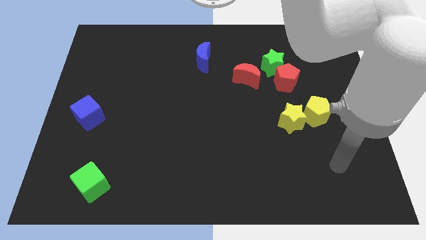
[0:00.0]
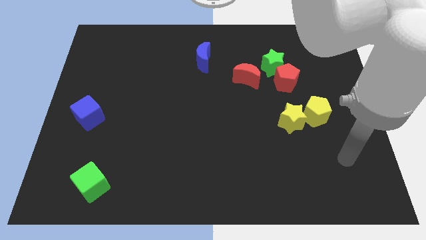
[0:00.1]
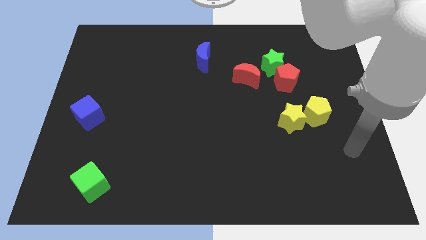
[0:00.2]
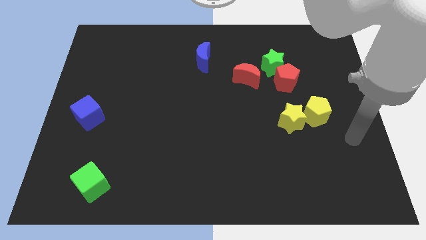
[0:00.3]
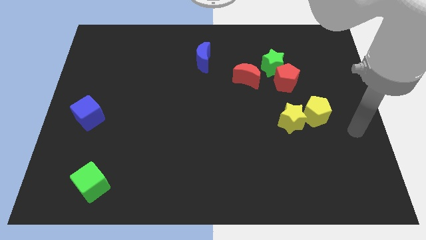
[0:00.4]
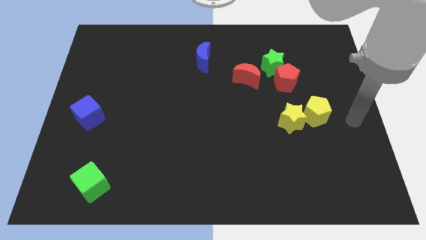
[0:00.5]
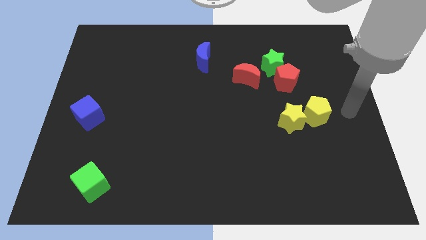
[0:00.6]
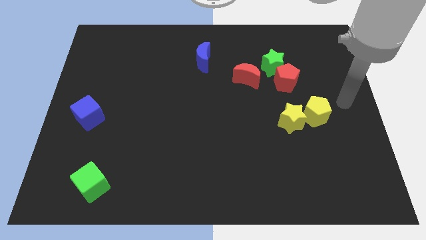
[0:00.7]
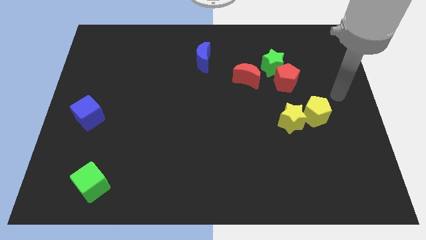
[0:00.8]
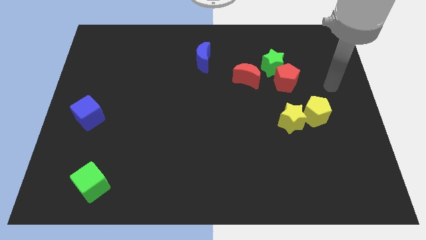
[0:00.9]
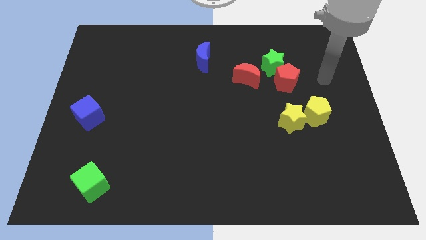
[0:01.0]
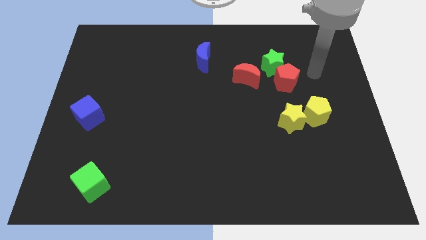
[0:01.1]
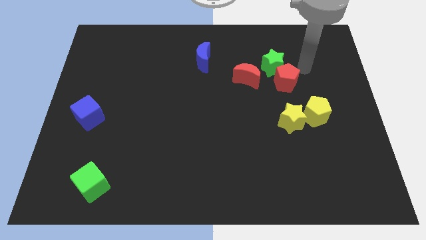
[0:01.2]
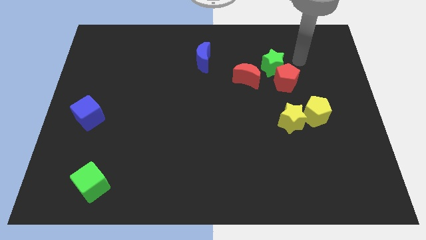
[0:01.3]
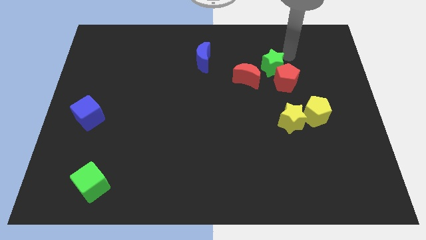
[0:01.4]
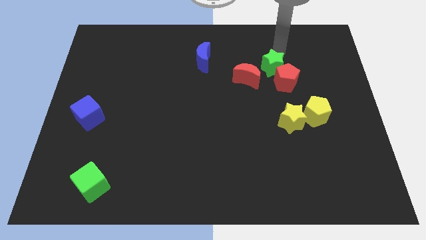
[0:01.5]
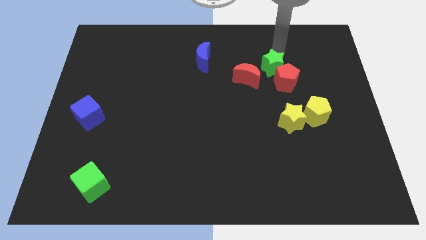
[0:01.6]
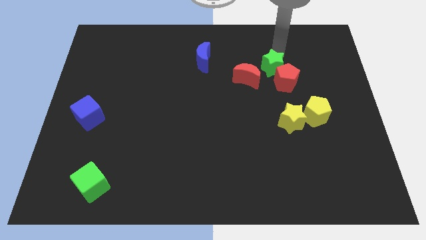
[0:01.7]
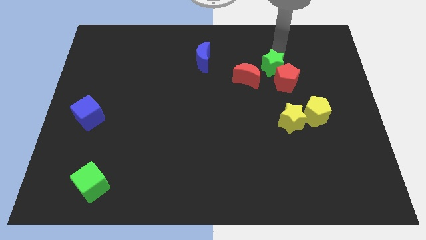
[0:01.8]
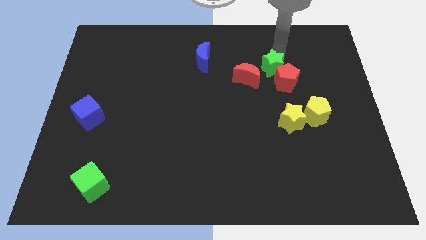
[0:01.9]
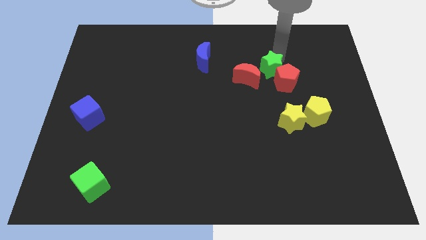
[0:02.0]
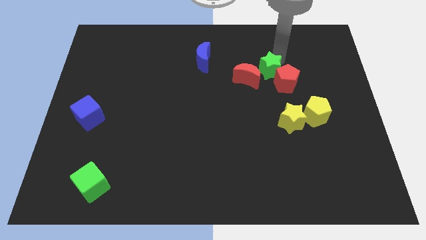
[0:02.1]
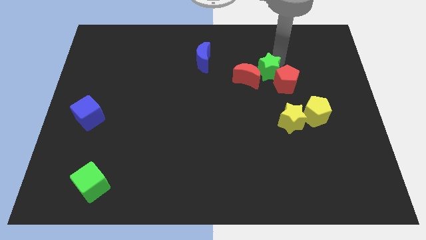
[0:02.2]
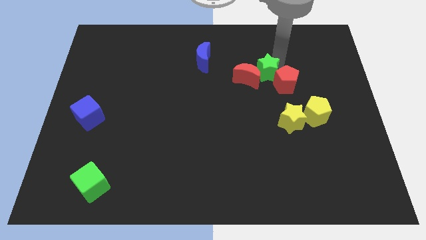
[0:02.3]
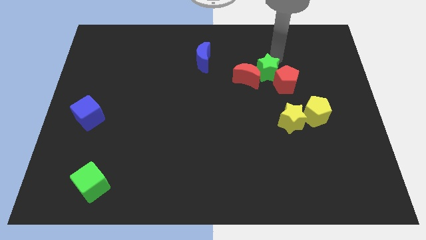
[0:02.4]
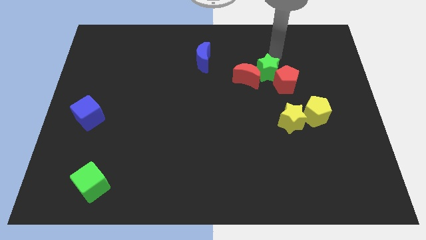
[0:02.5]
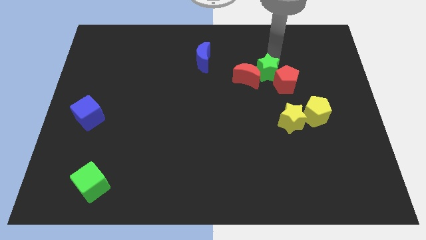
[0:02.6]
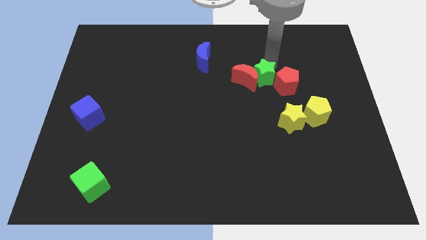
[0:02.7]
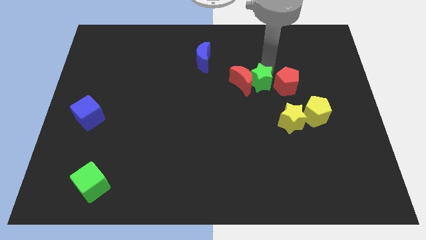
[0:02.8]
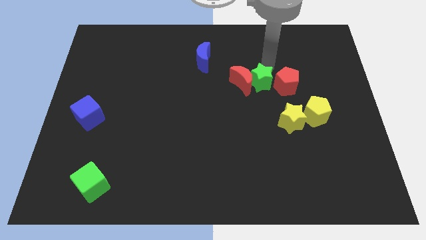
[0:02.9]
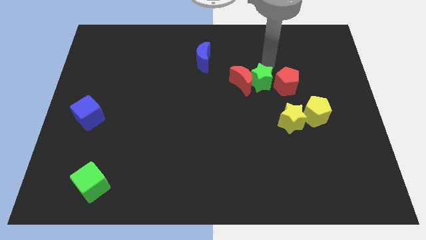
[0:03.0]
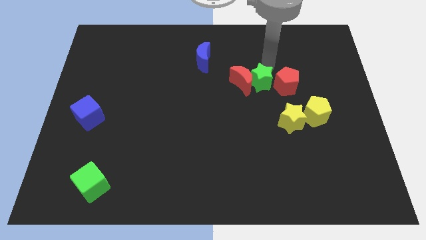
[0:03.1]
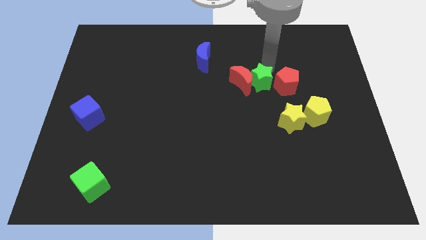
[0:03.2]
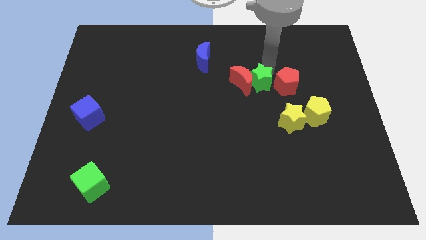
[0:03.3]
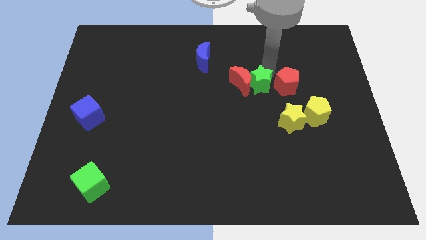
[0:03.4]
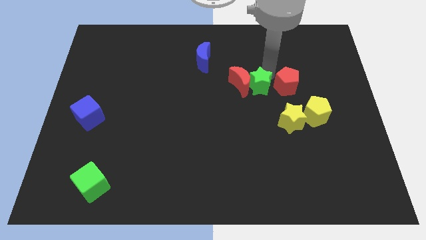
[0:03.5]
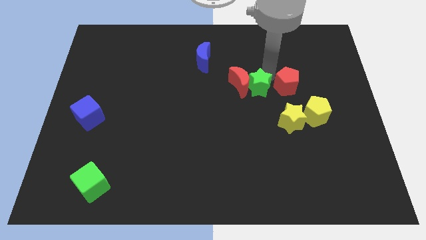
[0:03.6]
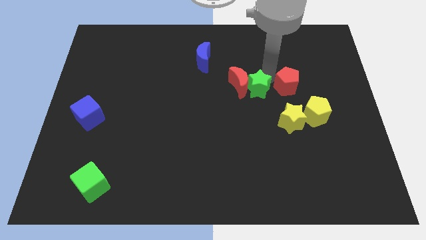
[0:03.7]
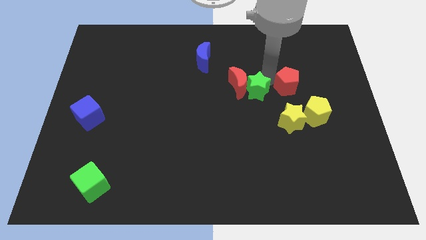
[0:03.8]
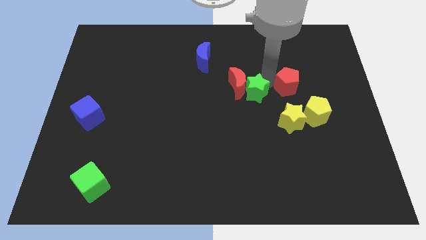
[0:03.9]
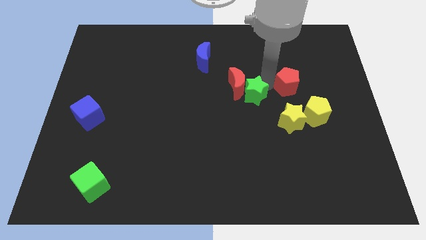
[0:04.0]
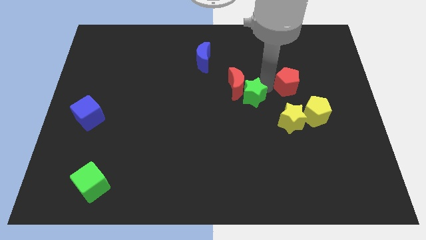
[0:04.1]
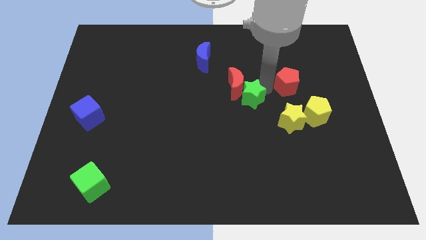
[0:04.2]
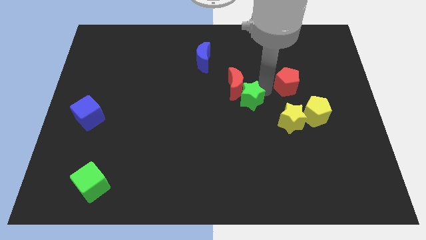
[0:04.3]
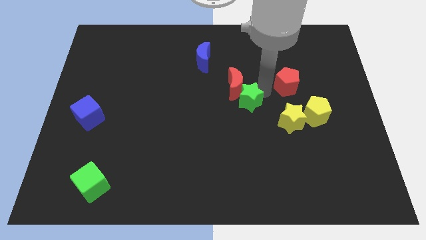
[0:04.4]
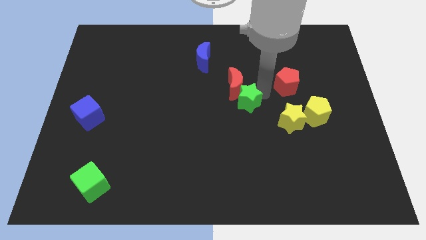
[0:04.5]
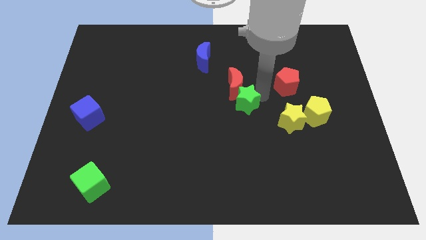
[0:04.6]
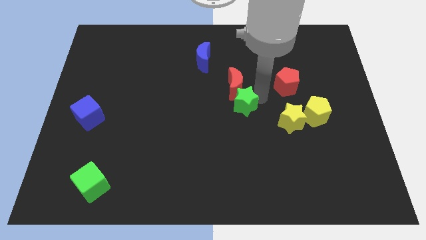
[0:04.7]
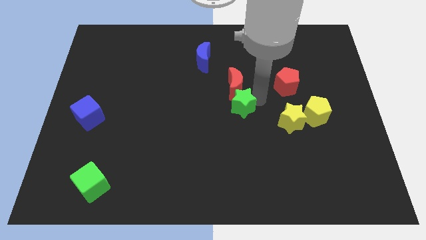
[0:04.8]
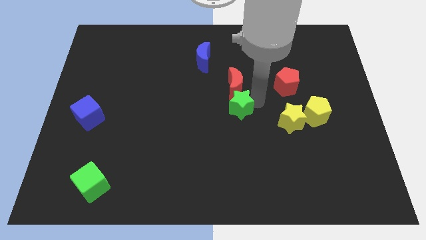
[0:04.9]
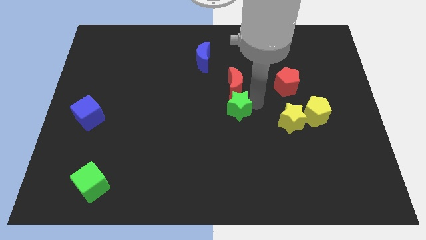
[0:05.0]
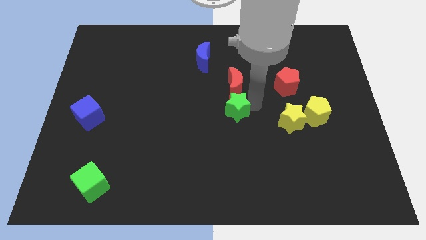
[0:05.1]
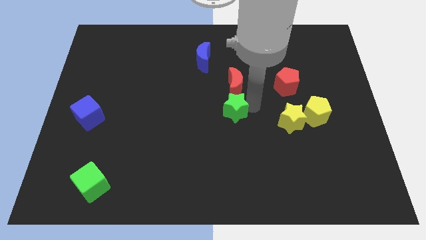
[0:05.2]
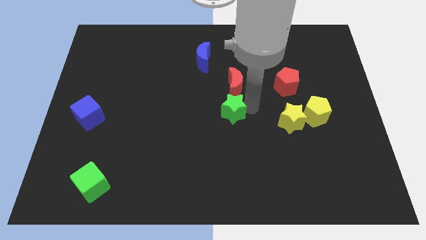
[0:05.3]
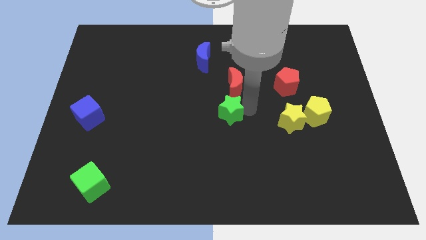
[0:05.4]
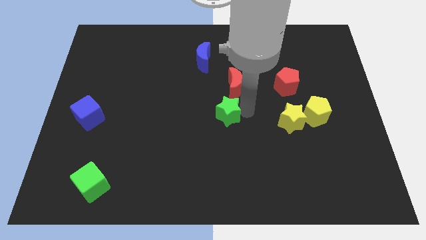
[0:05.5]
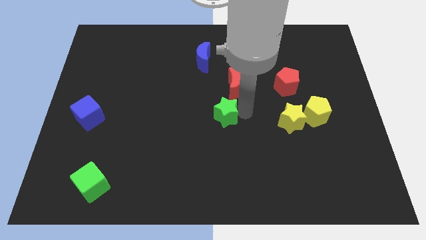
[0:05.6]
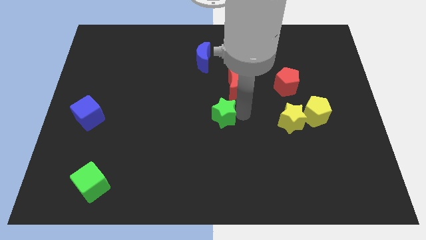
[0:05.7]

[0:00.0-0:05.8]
slide the green star diagonally down and left

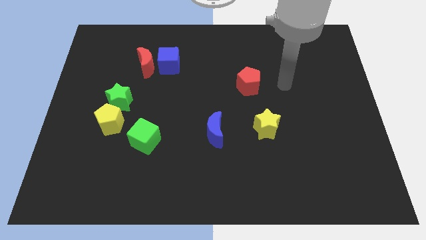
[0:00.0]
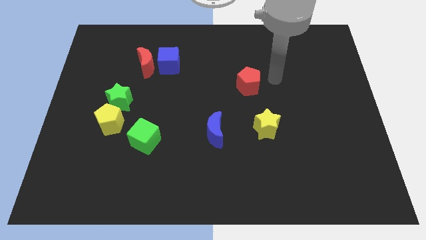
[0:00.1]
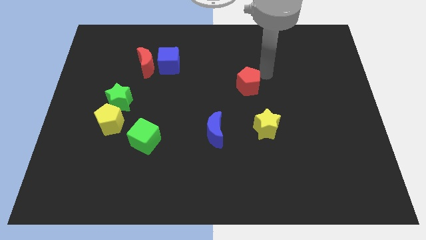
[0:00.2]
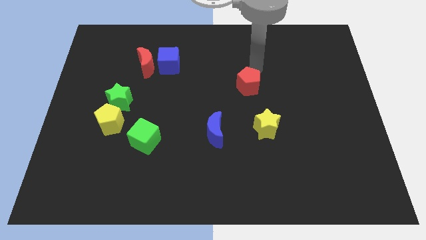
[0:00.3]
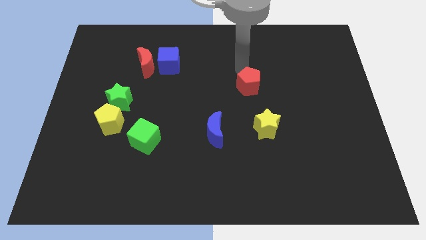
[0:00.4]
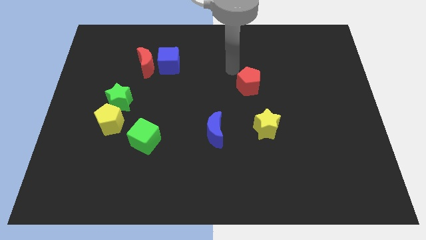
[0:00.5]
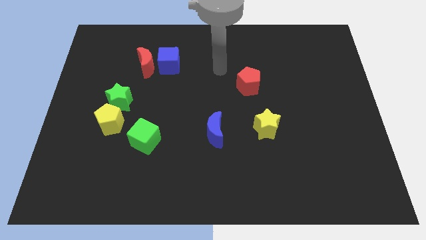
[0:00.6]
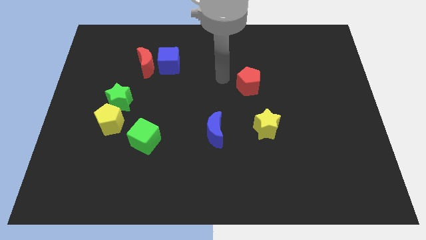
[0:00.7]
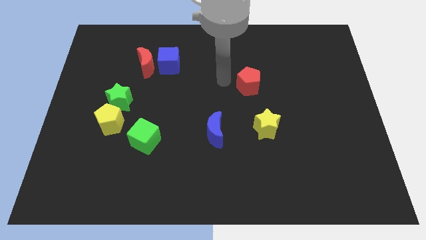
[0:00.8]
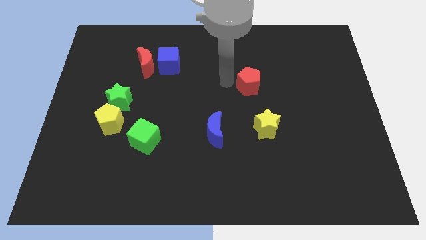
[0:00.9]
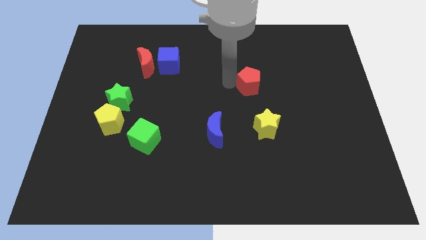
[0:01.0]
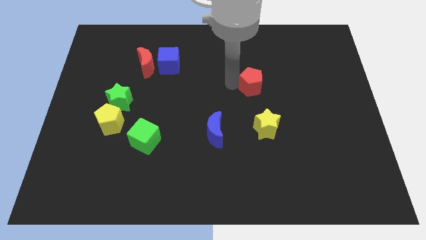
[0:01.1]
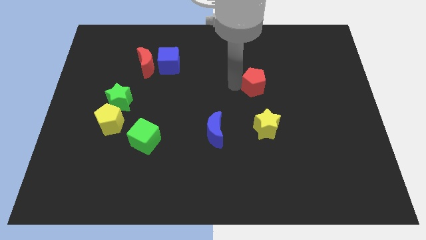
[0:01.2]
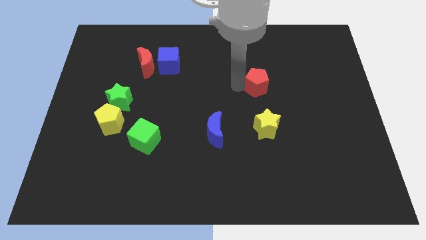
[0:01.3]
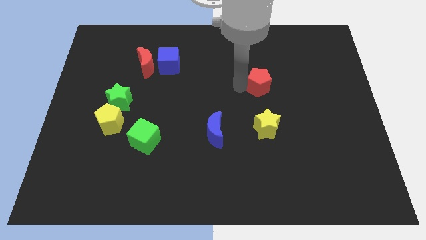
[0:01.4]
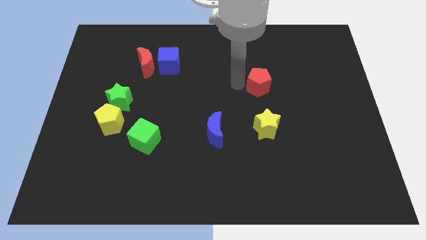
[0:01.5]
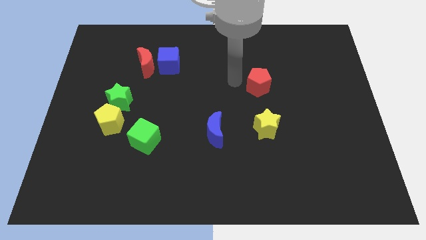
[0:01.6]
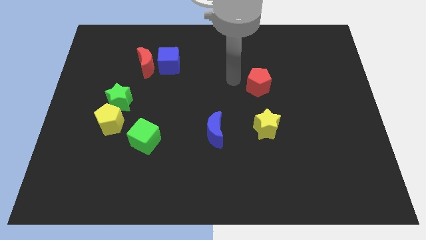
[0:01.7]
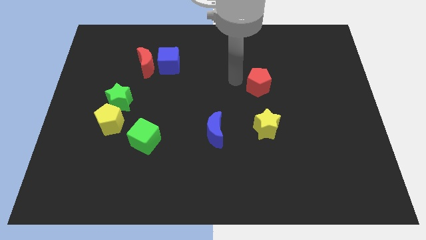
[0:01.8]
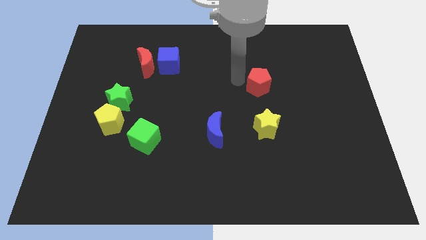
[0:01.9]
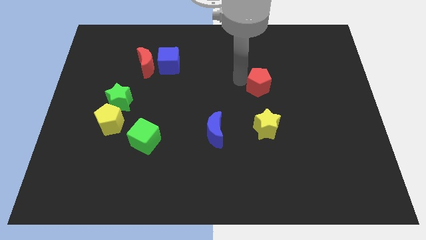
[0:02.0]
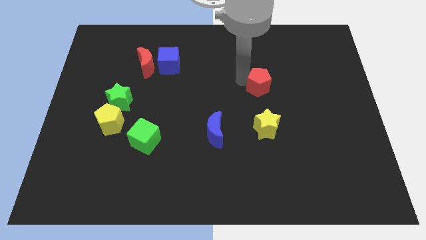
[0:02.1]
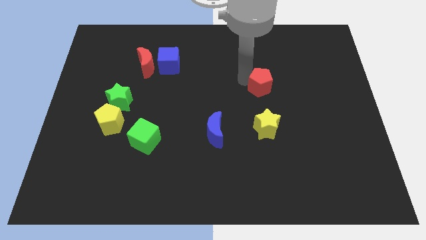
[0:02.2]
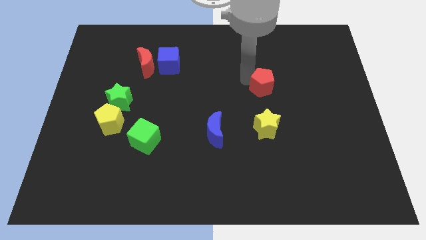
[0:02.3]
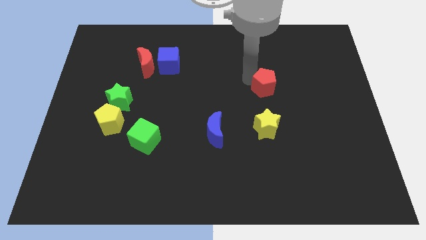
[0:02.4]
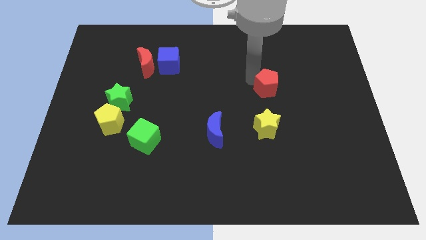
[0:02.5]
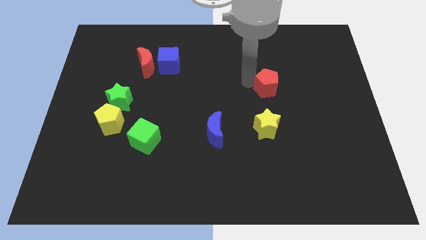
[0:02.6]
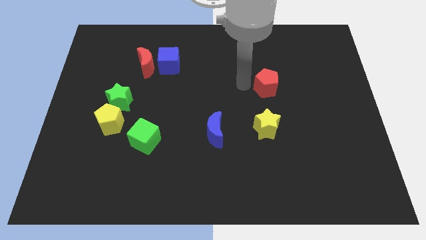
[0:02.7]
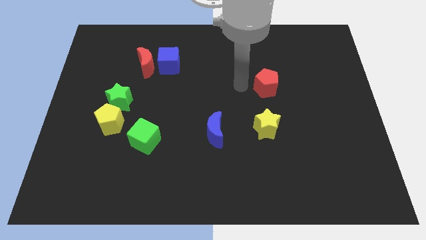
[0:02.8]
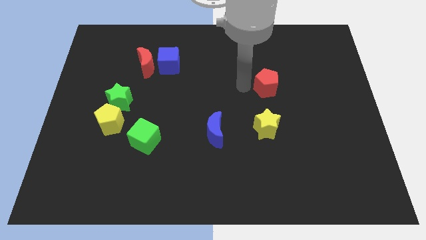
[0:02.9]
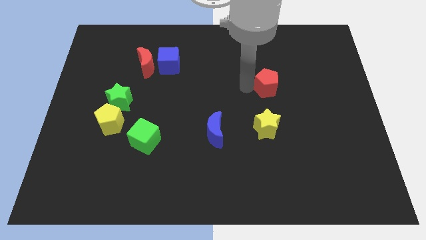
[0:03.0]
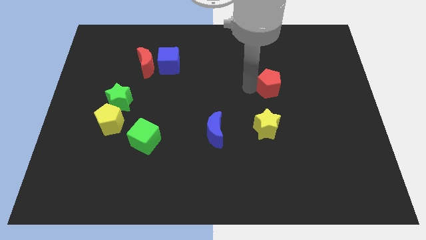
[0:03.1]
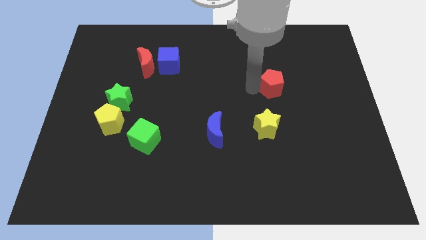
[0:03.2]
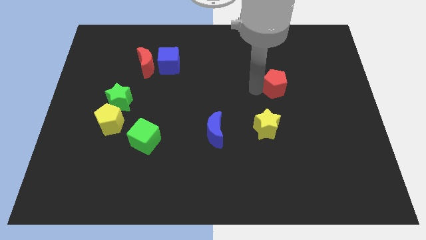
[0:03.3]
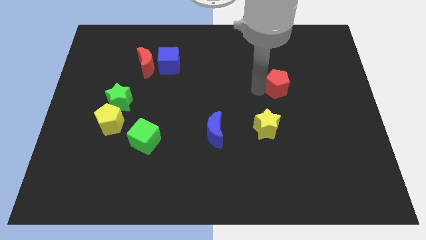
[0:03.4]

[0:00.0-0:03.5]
slightly slide the red pentagon to the right
